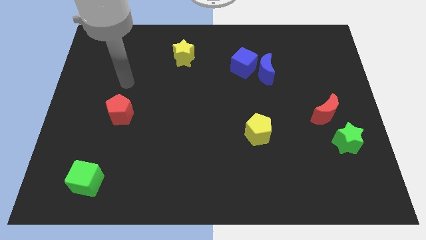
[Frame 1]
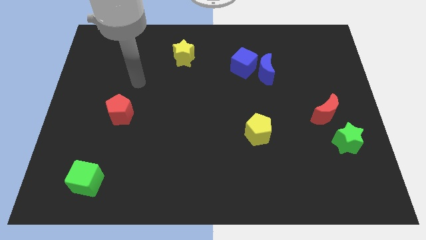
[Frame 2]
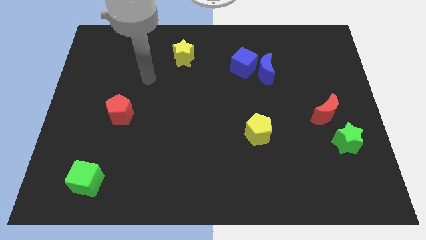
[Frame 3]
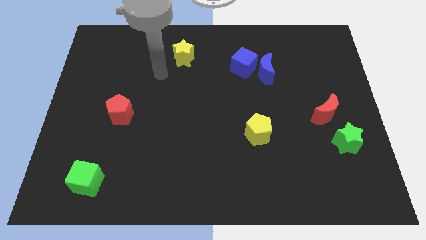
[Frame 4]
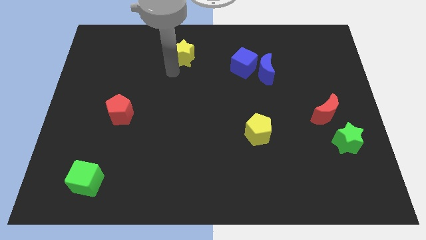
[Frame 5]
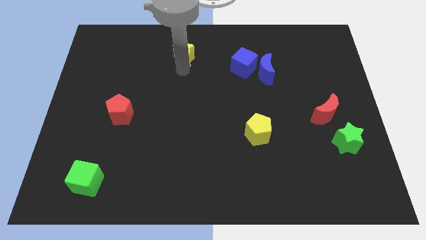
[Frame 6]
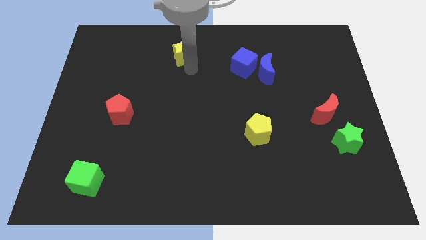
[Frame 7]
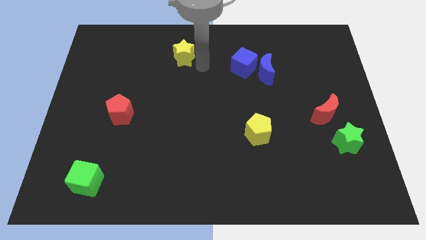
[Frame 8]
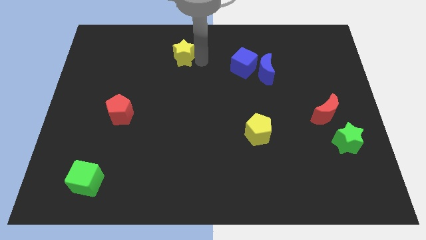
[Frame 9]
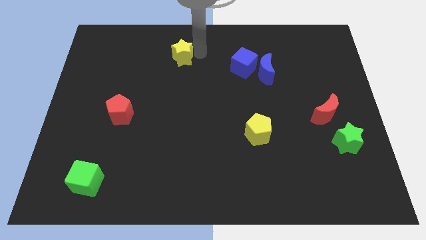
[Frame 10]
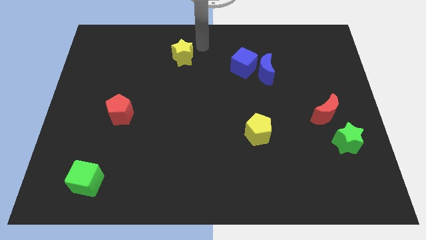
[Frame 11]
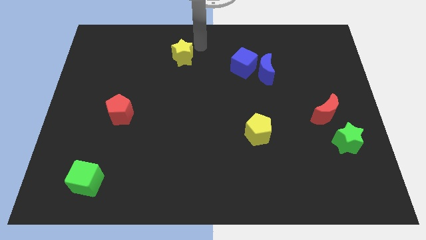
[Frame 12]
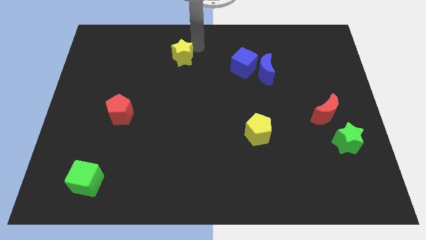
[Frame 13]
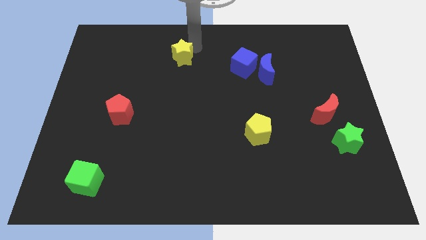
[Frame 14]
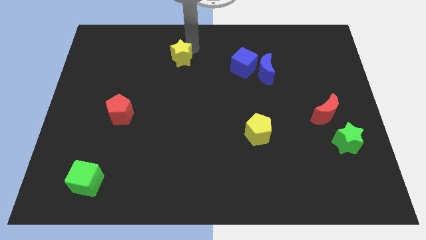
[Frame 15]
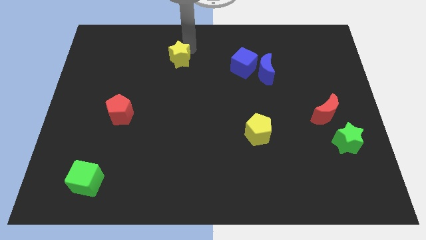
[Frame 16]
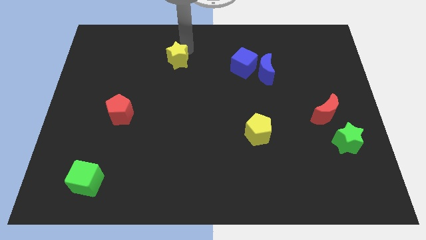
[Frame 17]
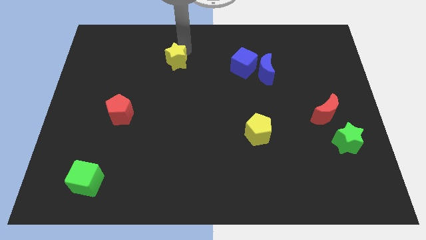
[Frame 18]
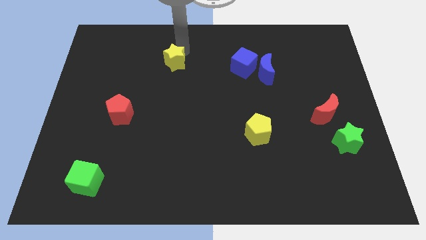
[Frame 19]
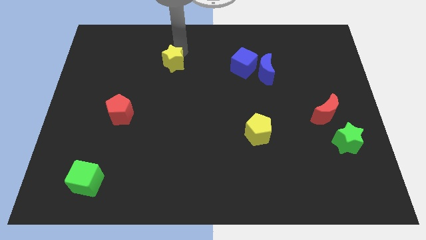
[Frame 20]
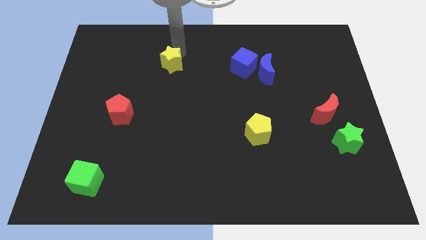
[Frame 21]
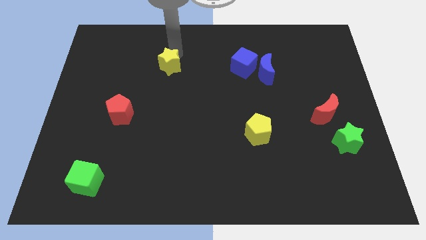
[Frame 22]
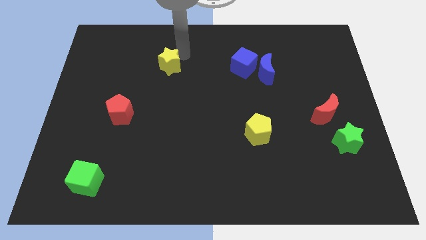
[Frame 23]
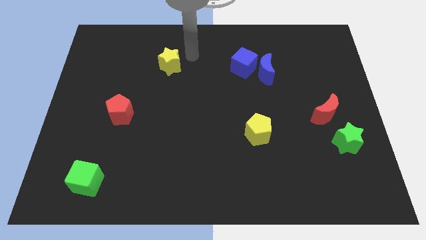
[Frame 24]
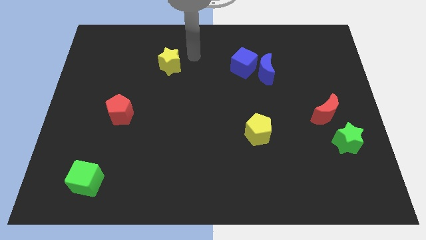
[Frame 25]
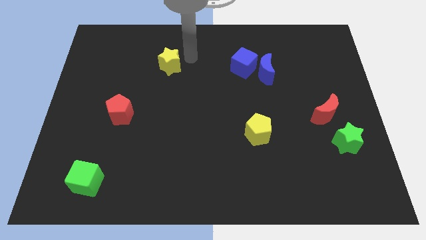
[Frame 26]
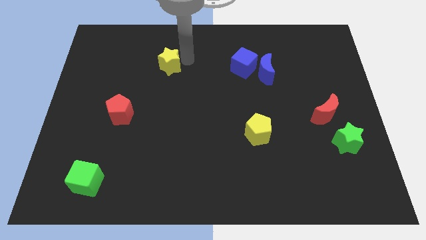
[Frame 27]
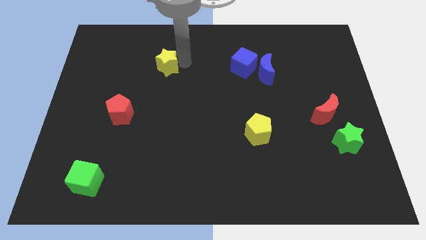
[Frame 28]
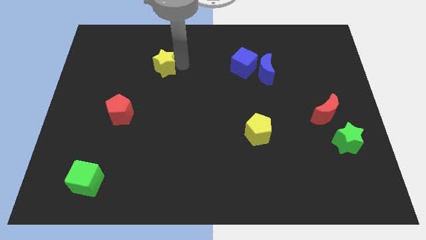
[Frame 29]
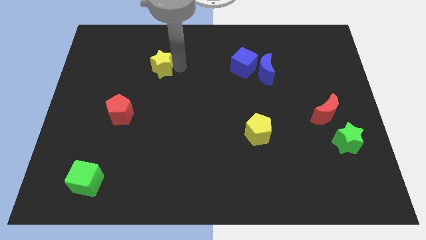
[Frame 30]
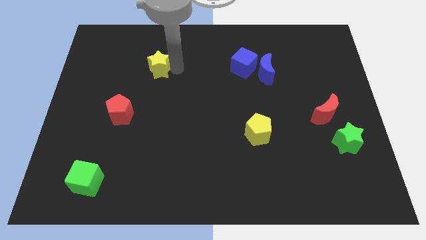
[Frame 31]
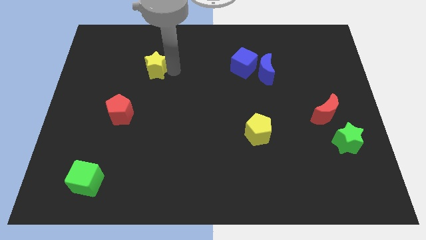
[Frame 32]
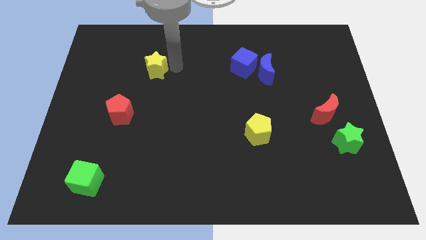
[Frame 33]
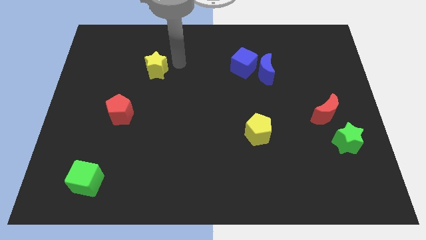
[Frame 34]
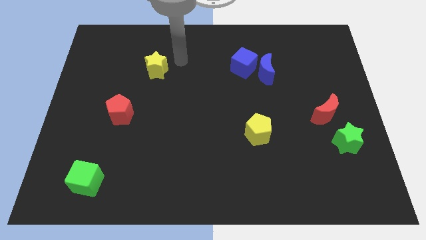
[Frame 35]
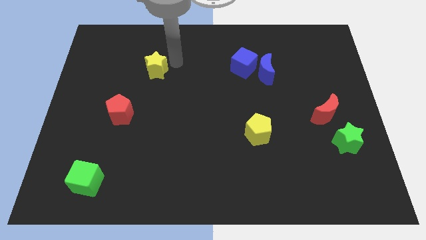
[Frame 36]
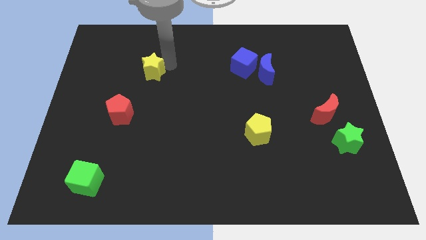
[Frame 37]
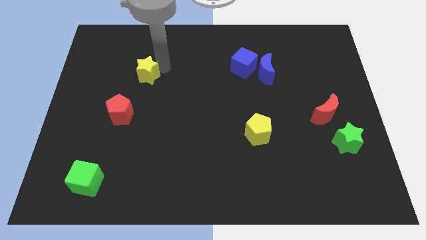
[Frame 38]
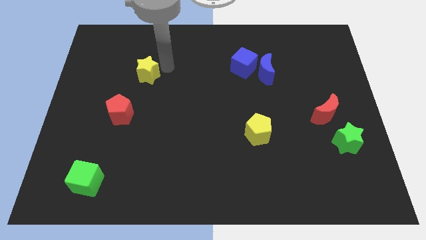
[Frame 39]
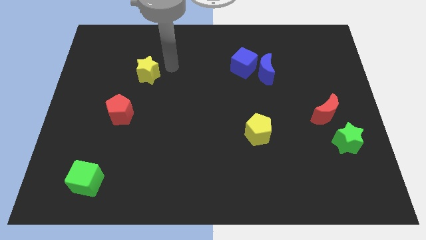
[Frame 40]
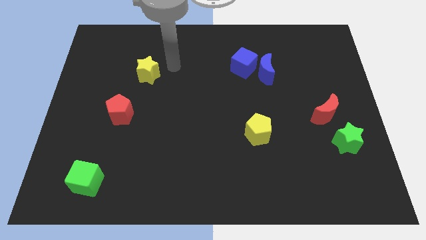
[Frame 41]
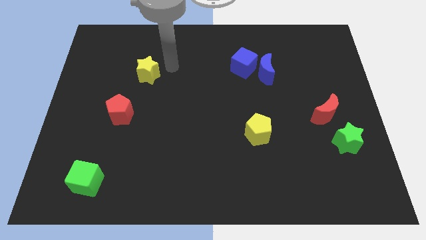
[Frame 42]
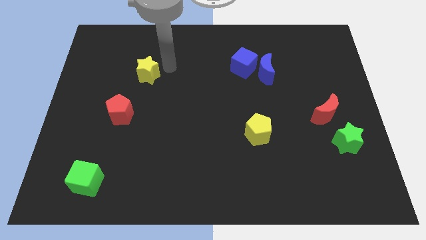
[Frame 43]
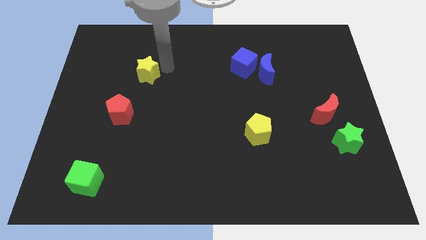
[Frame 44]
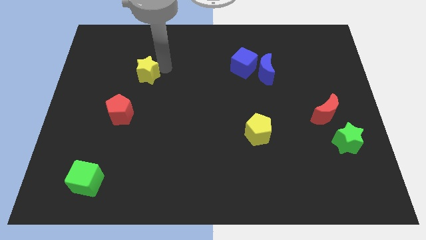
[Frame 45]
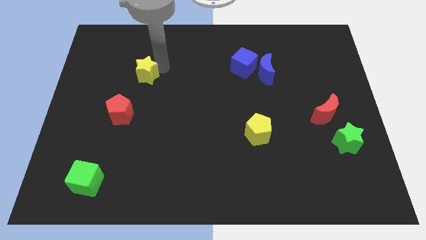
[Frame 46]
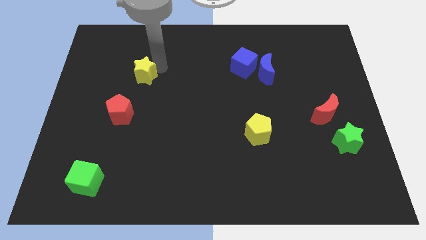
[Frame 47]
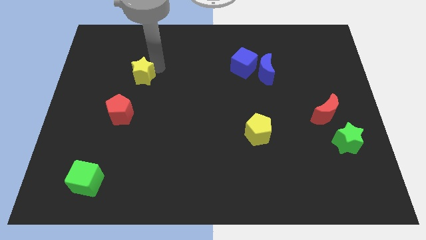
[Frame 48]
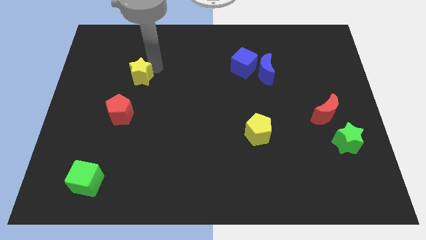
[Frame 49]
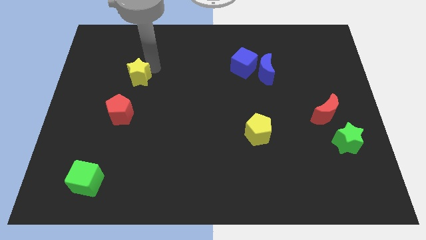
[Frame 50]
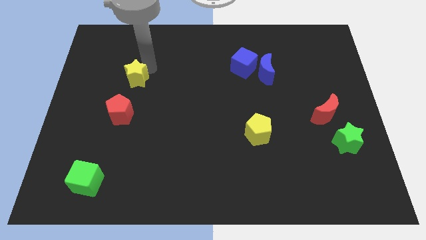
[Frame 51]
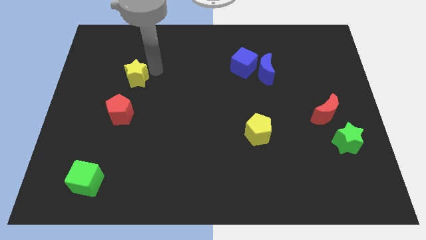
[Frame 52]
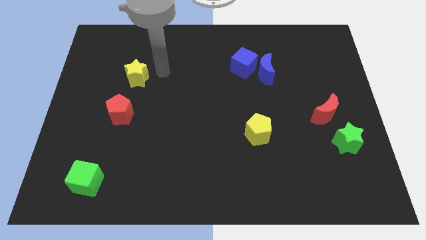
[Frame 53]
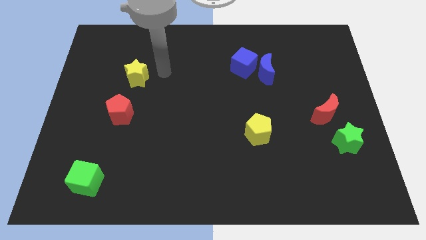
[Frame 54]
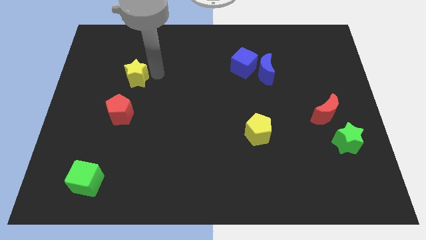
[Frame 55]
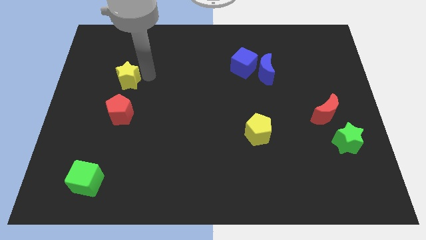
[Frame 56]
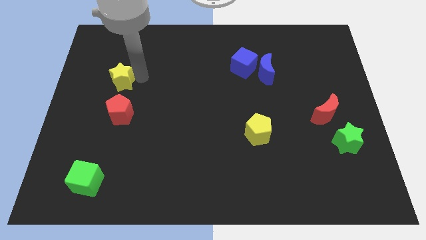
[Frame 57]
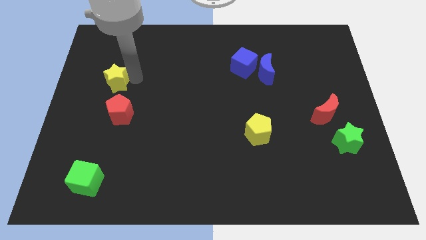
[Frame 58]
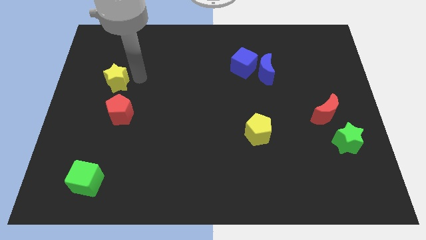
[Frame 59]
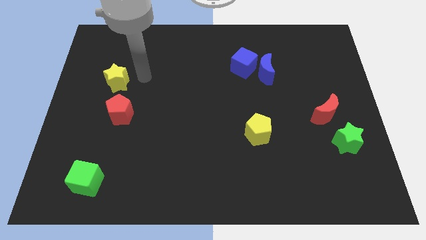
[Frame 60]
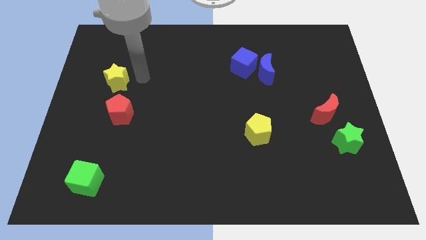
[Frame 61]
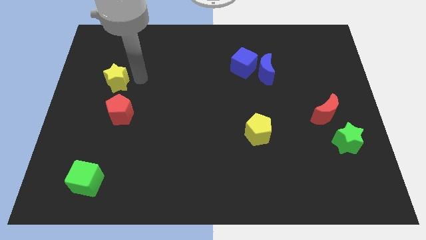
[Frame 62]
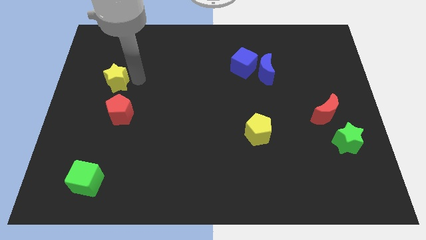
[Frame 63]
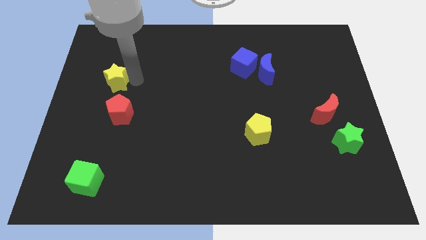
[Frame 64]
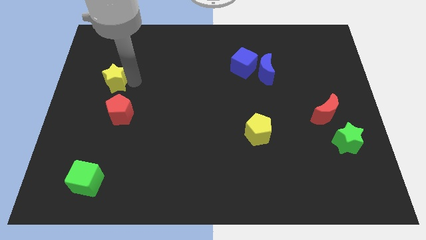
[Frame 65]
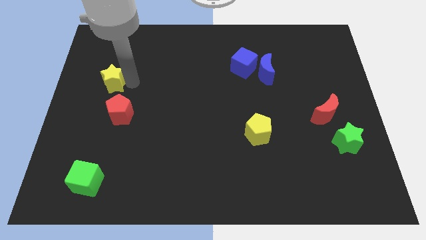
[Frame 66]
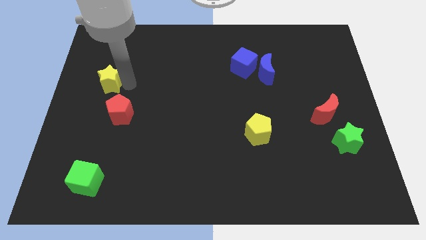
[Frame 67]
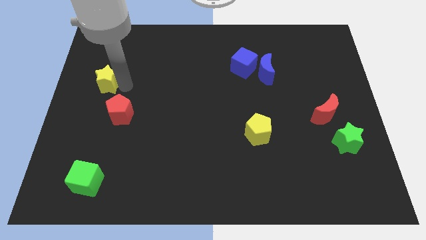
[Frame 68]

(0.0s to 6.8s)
slide the yellow star to the left side
